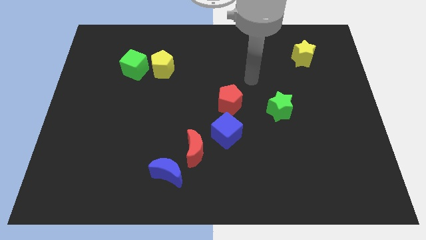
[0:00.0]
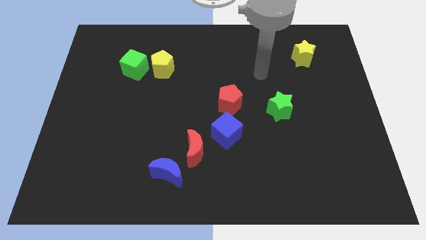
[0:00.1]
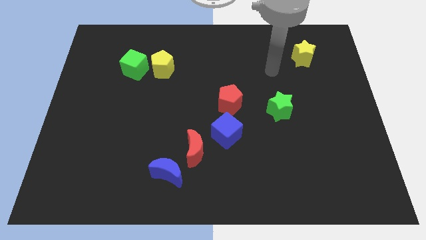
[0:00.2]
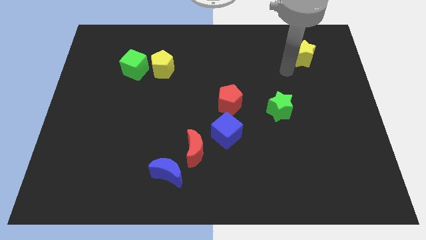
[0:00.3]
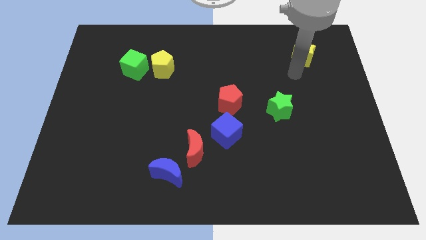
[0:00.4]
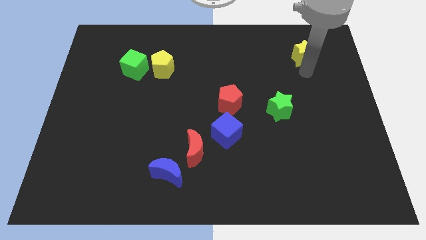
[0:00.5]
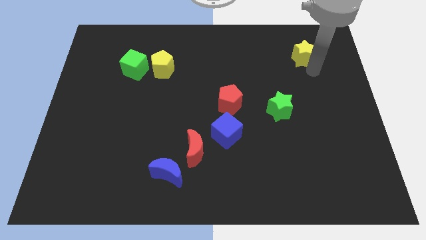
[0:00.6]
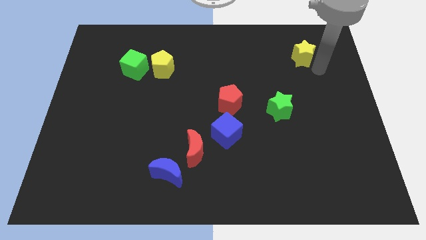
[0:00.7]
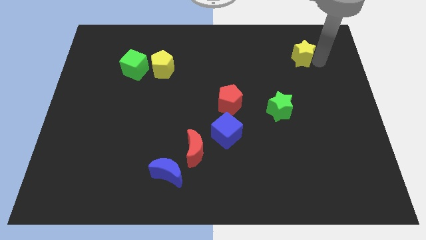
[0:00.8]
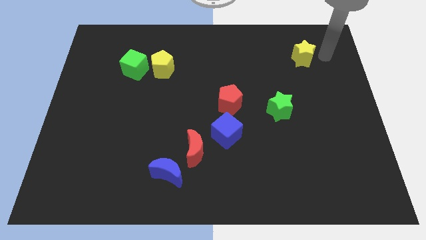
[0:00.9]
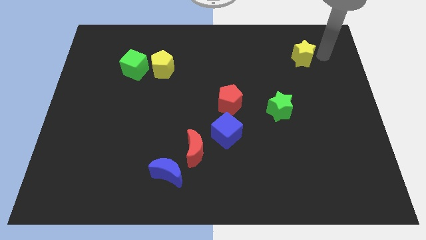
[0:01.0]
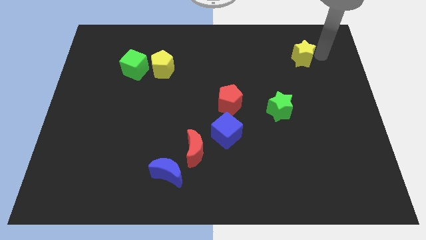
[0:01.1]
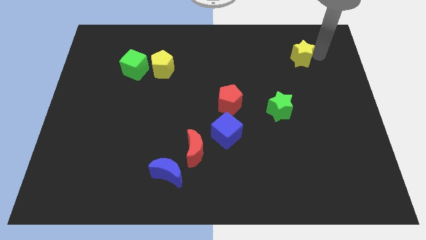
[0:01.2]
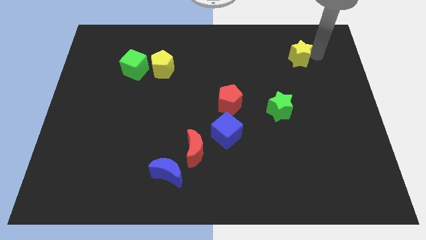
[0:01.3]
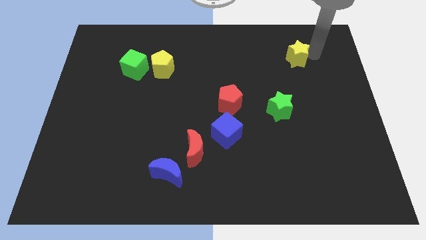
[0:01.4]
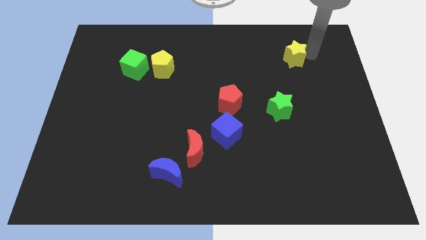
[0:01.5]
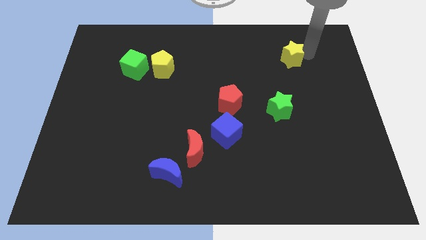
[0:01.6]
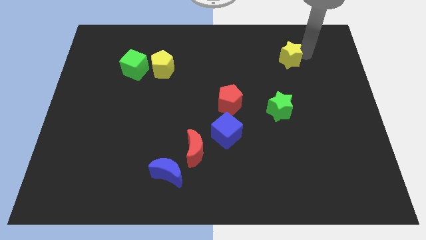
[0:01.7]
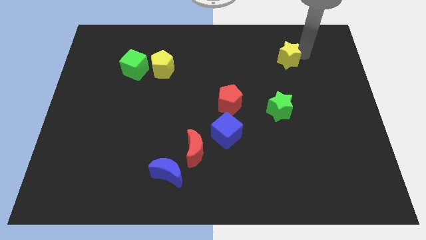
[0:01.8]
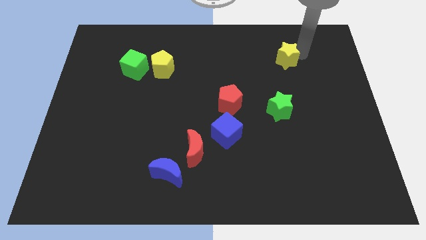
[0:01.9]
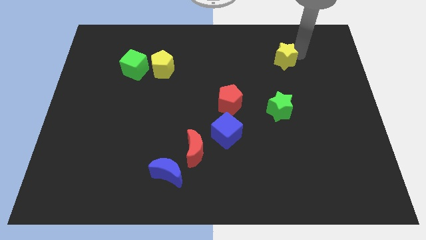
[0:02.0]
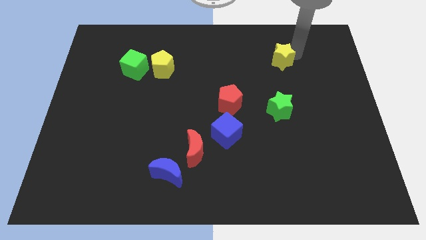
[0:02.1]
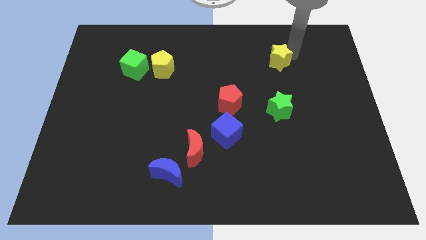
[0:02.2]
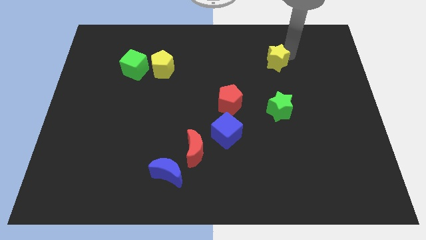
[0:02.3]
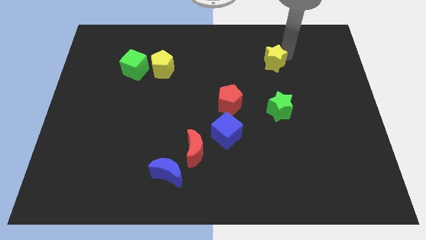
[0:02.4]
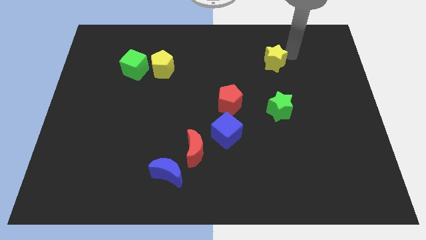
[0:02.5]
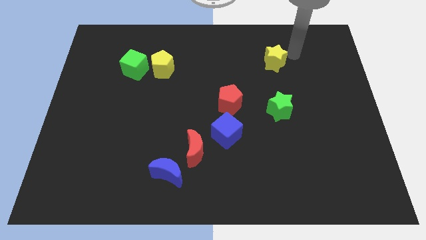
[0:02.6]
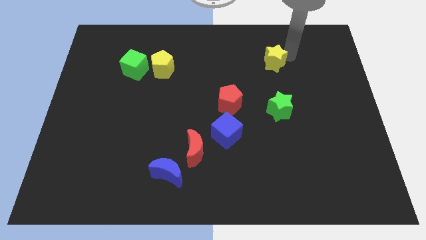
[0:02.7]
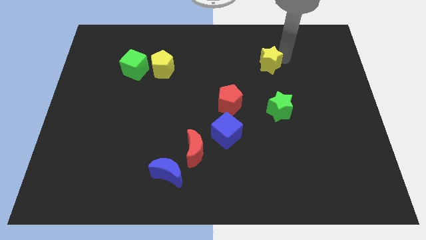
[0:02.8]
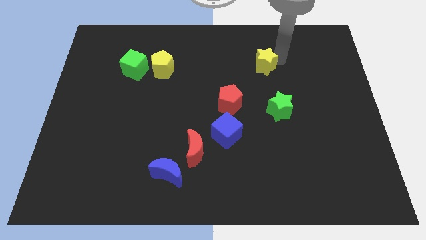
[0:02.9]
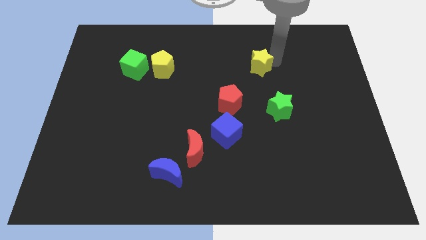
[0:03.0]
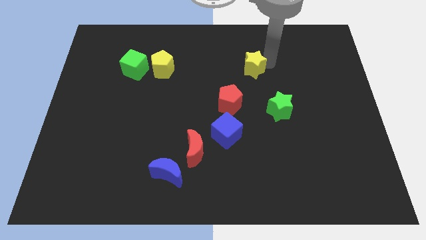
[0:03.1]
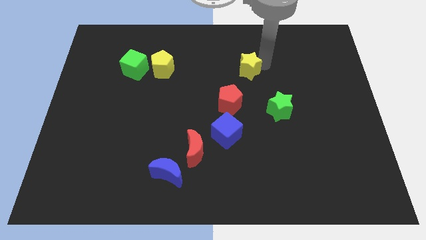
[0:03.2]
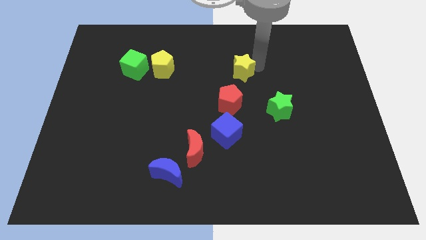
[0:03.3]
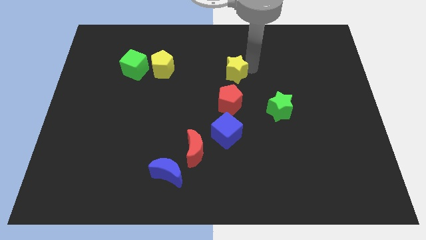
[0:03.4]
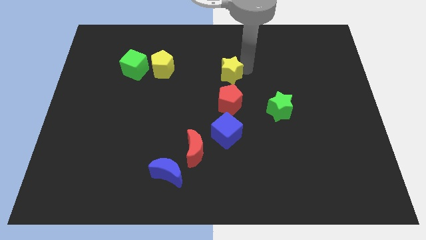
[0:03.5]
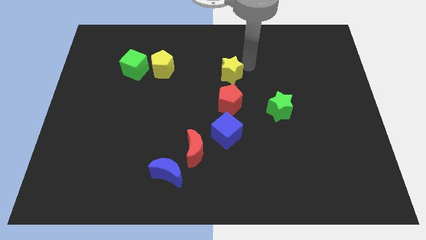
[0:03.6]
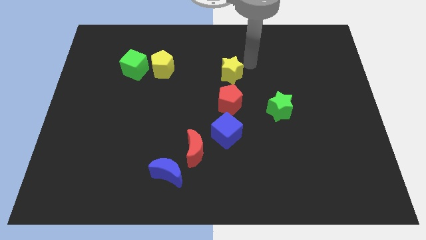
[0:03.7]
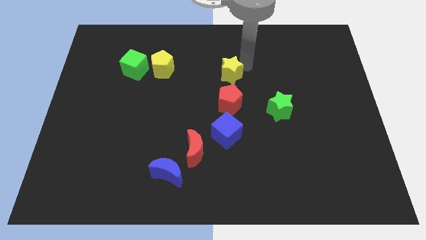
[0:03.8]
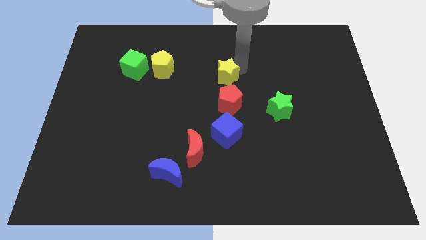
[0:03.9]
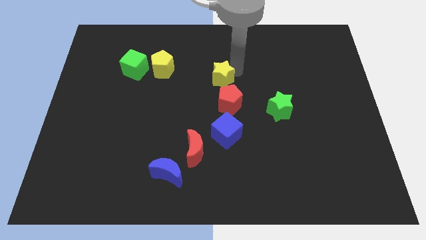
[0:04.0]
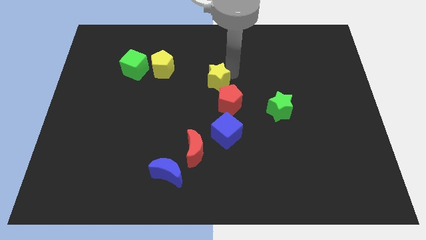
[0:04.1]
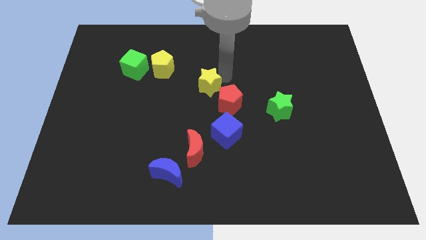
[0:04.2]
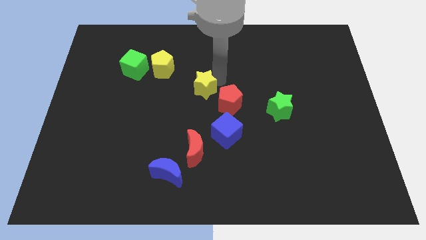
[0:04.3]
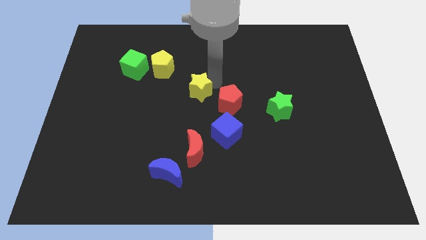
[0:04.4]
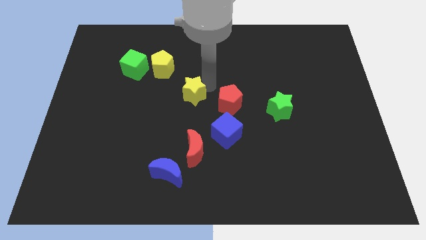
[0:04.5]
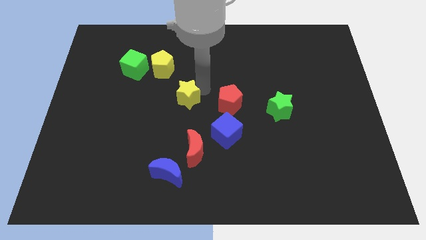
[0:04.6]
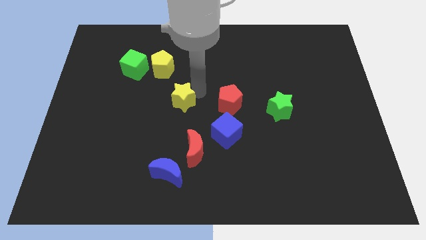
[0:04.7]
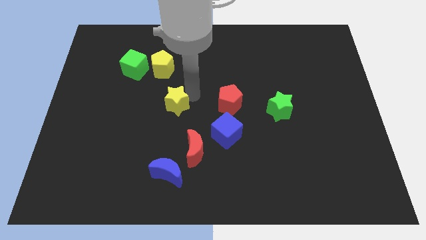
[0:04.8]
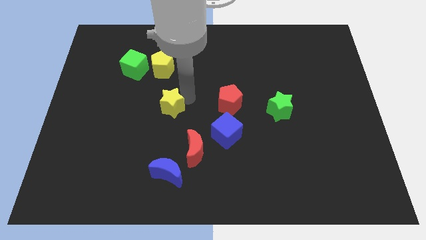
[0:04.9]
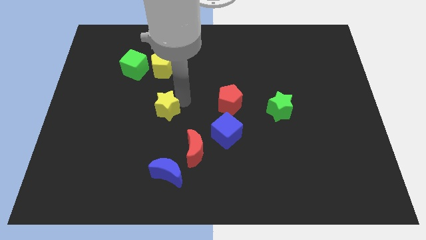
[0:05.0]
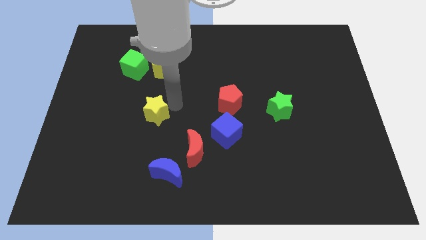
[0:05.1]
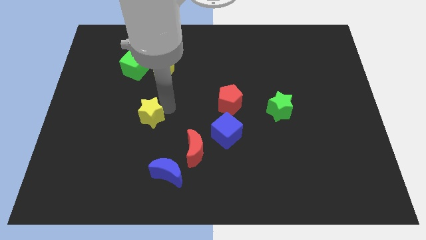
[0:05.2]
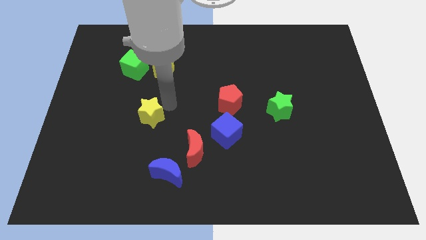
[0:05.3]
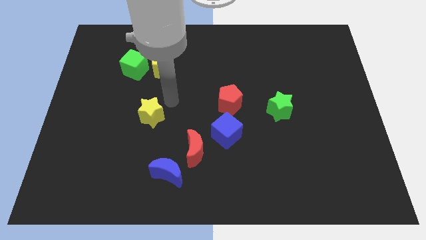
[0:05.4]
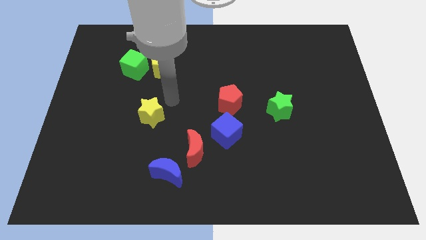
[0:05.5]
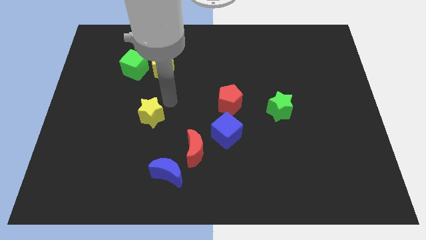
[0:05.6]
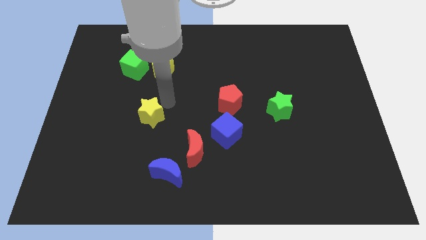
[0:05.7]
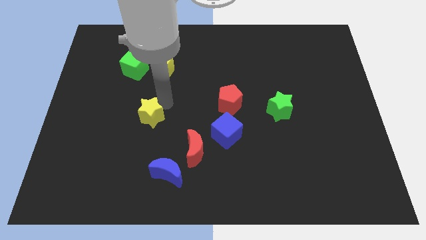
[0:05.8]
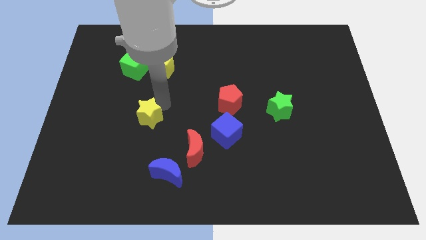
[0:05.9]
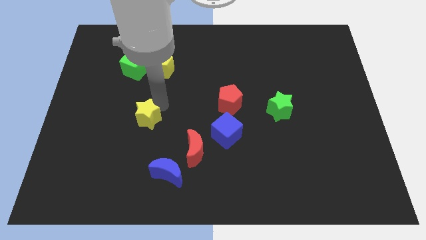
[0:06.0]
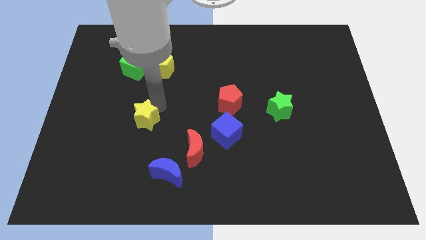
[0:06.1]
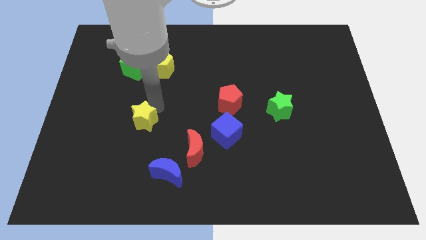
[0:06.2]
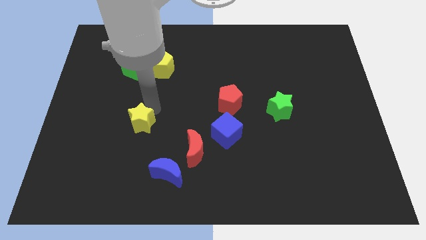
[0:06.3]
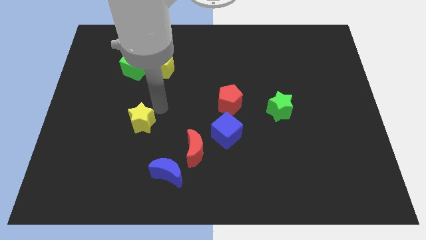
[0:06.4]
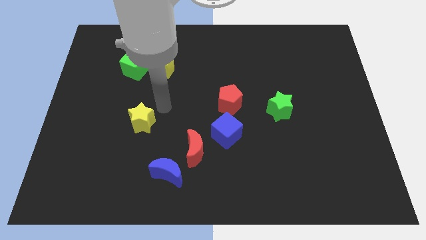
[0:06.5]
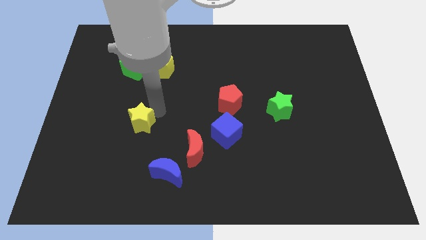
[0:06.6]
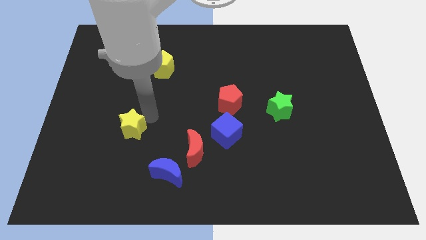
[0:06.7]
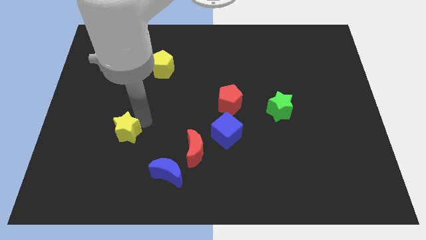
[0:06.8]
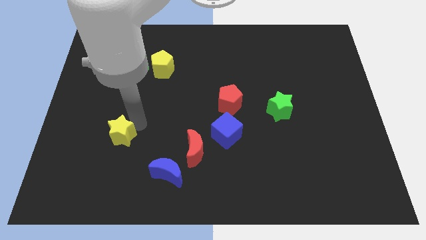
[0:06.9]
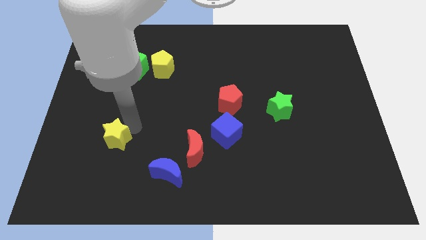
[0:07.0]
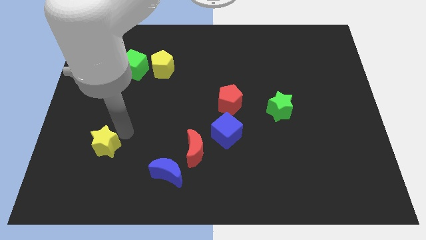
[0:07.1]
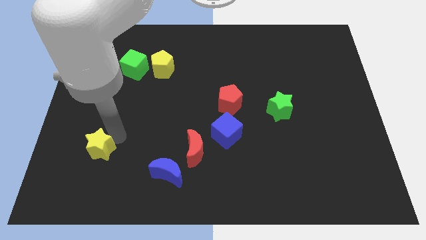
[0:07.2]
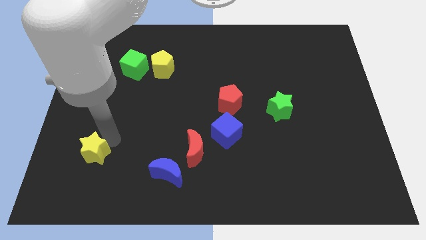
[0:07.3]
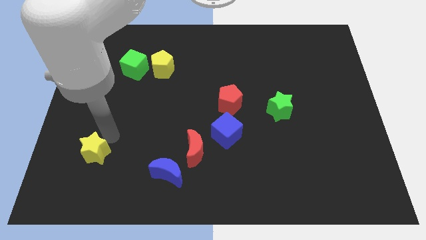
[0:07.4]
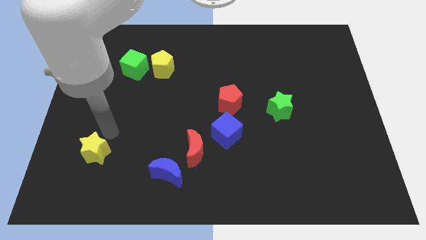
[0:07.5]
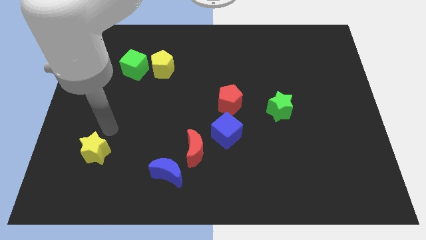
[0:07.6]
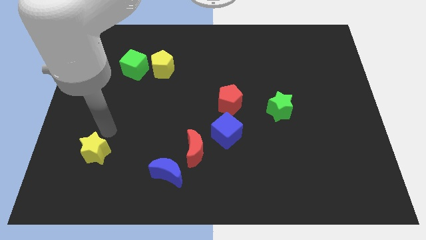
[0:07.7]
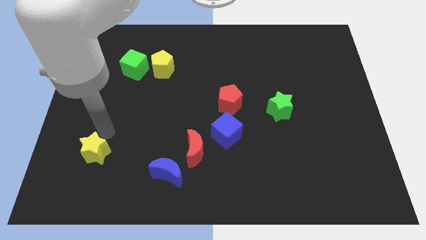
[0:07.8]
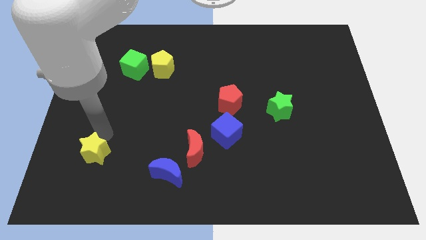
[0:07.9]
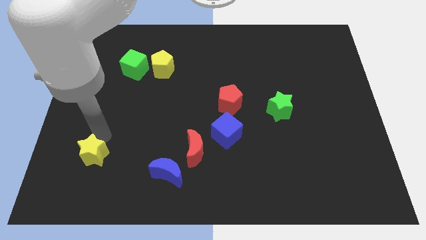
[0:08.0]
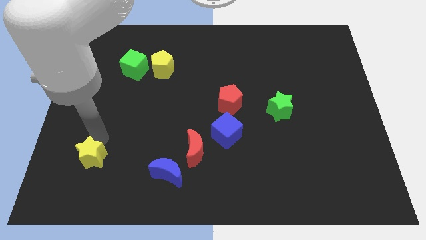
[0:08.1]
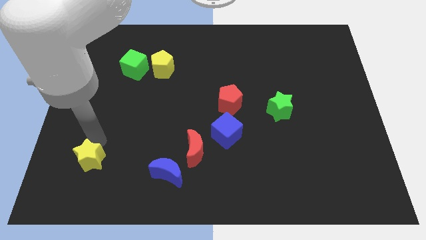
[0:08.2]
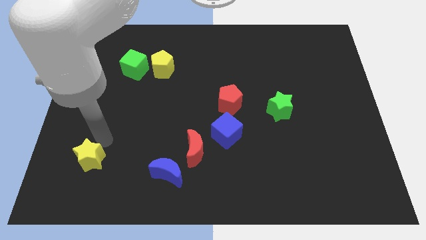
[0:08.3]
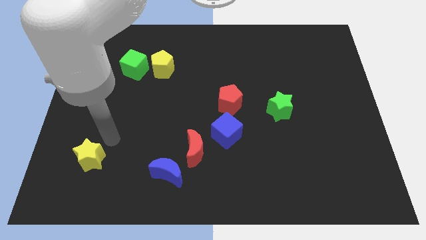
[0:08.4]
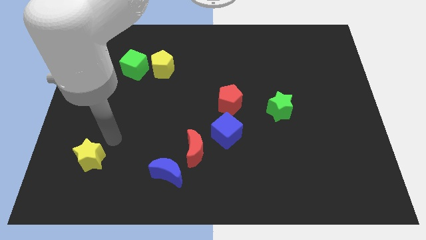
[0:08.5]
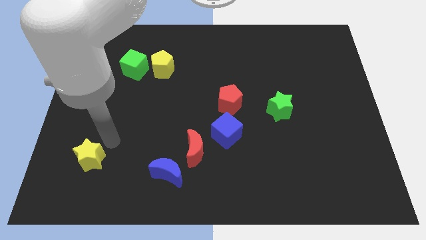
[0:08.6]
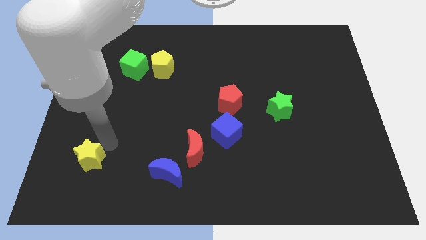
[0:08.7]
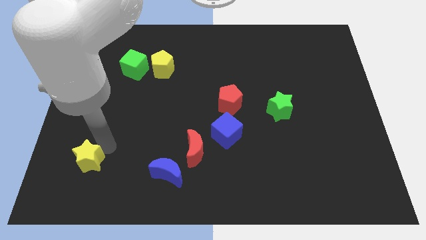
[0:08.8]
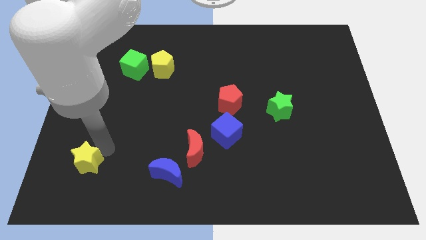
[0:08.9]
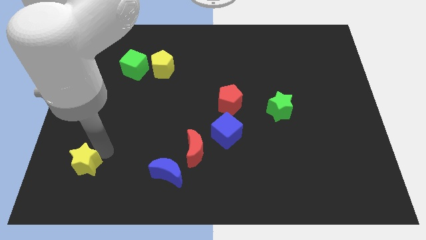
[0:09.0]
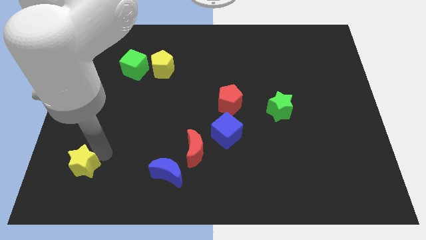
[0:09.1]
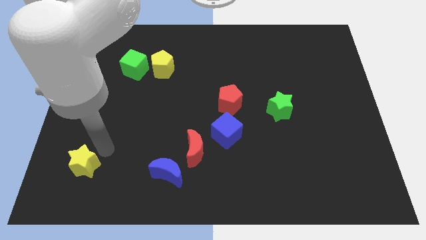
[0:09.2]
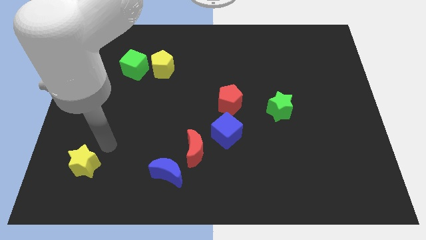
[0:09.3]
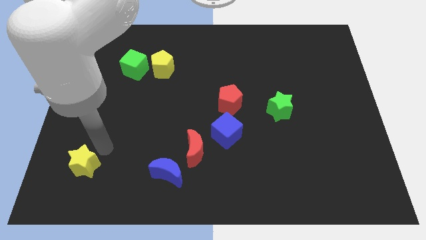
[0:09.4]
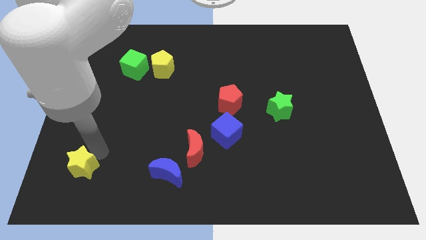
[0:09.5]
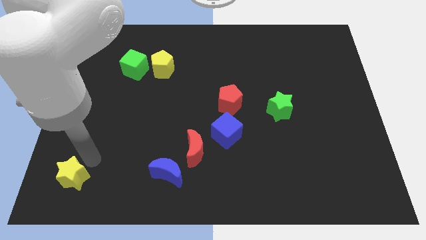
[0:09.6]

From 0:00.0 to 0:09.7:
put the yellow star to the lower left corner
